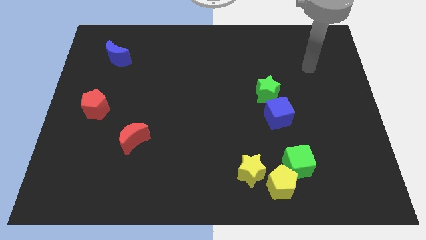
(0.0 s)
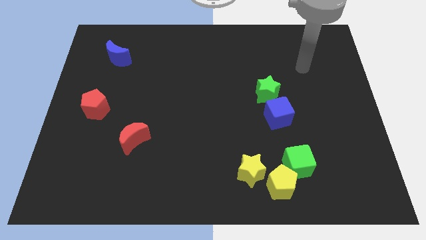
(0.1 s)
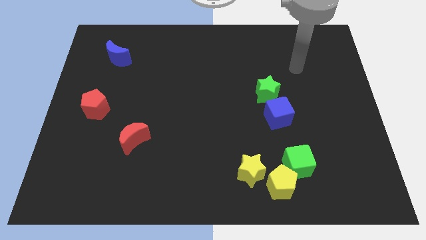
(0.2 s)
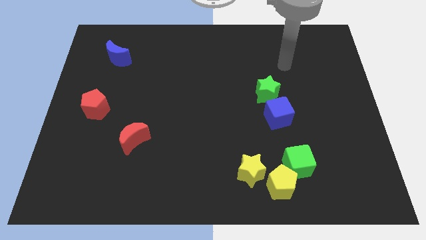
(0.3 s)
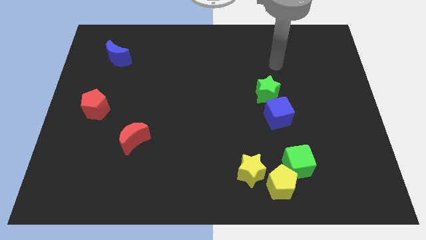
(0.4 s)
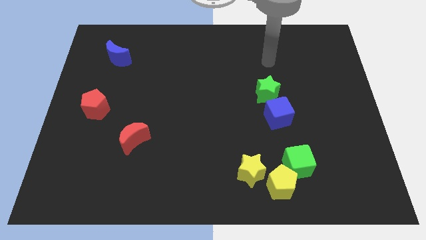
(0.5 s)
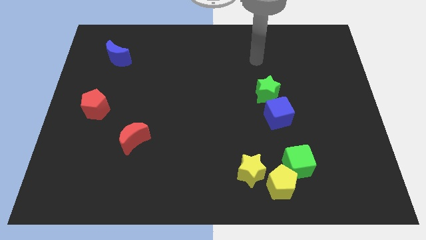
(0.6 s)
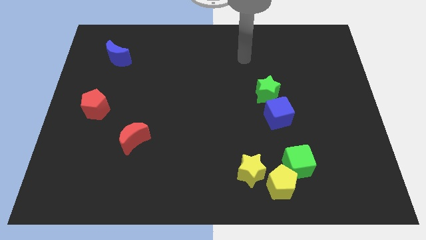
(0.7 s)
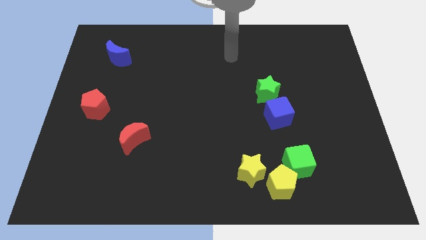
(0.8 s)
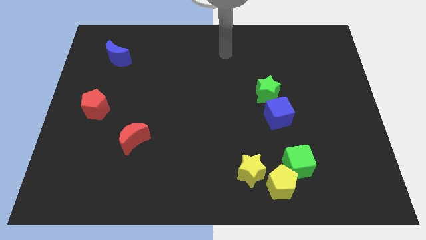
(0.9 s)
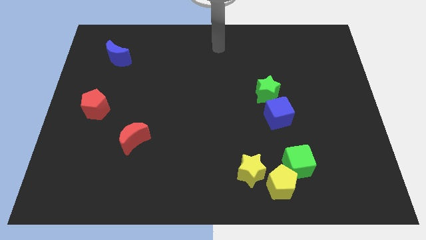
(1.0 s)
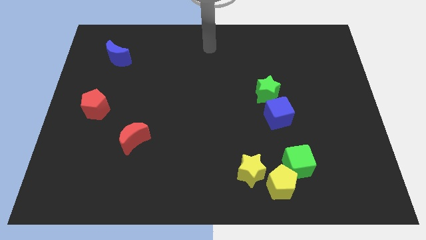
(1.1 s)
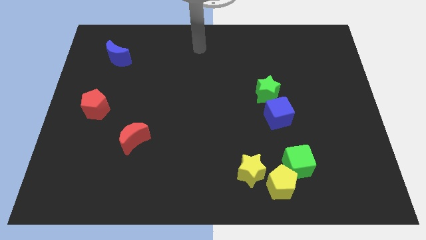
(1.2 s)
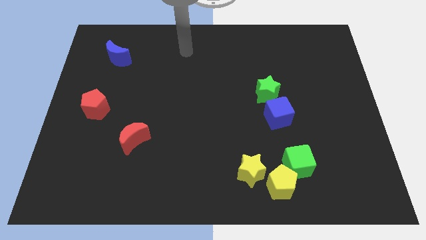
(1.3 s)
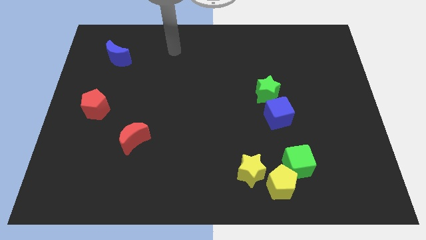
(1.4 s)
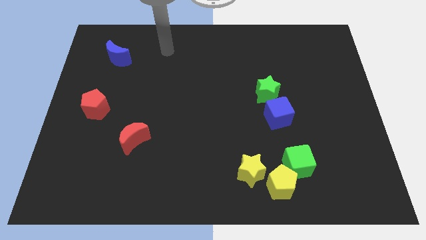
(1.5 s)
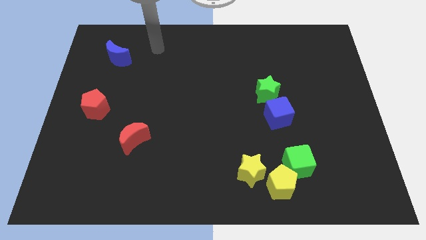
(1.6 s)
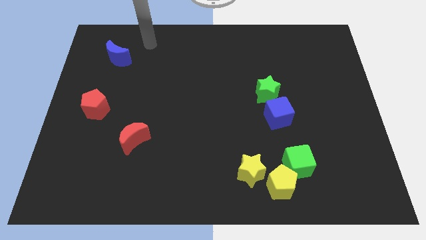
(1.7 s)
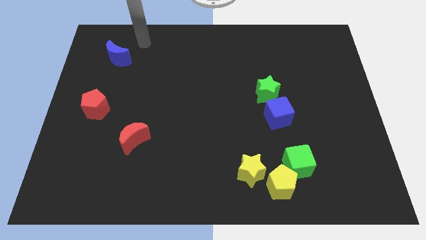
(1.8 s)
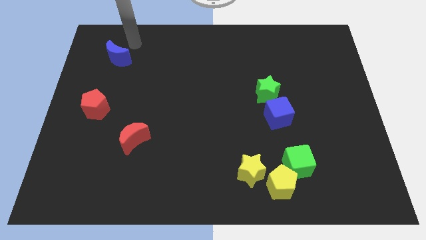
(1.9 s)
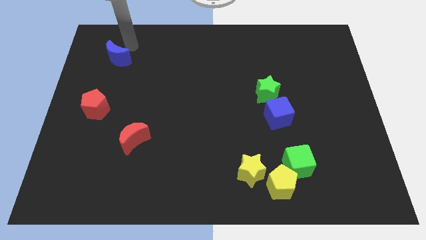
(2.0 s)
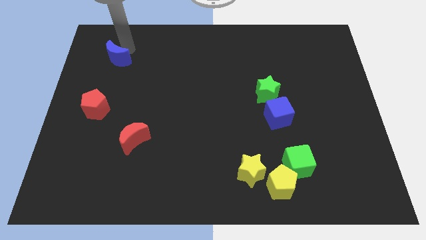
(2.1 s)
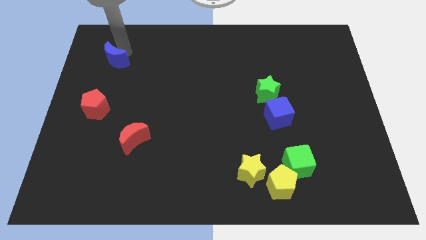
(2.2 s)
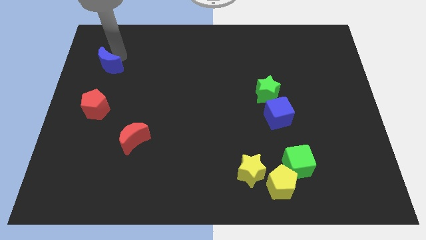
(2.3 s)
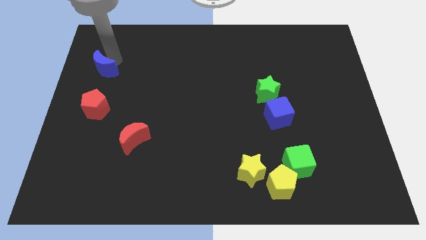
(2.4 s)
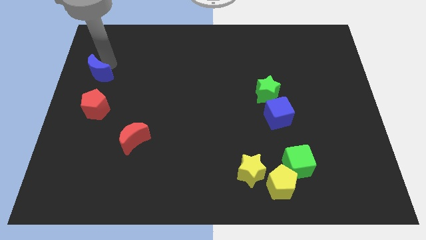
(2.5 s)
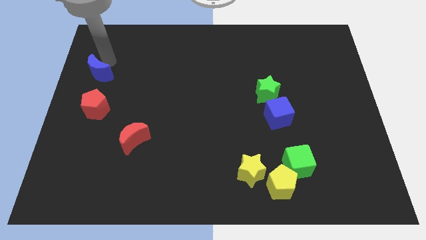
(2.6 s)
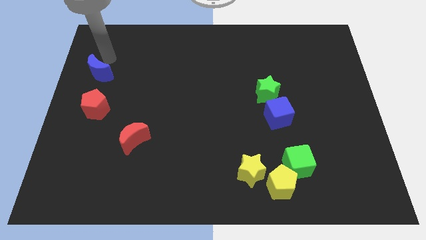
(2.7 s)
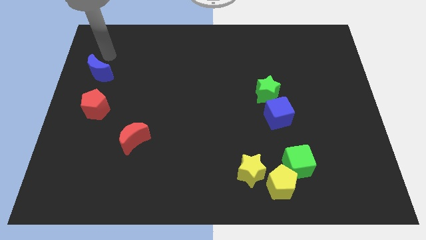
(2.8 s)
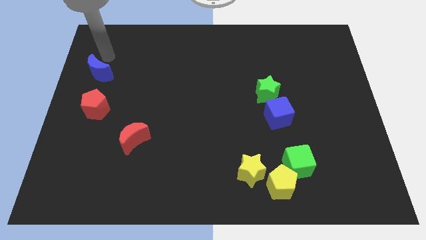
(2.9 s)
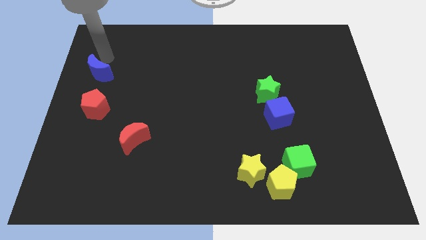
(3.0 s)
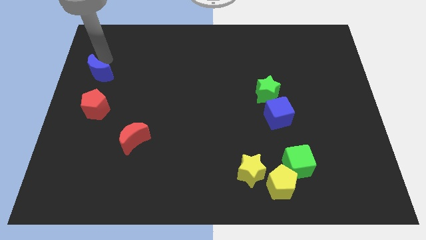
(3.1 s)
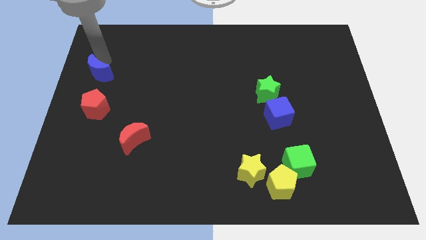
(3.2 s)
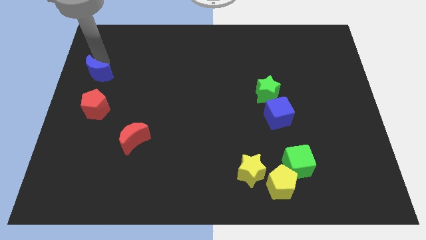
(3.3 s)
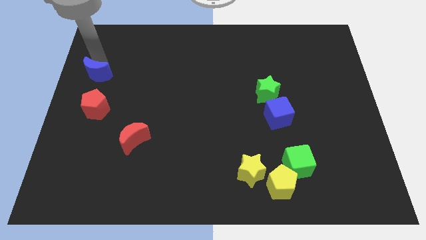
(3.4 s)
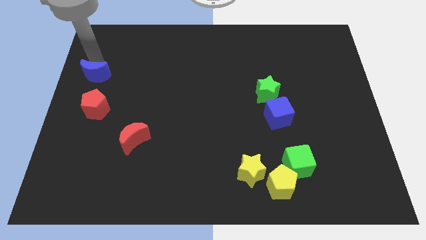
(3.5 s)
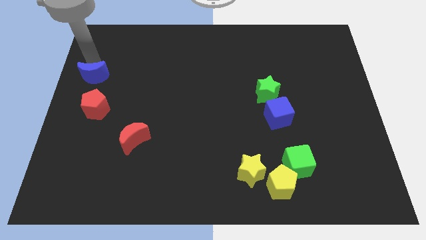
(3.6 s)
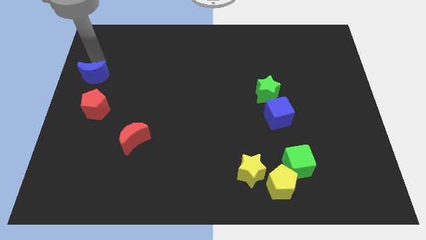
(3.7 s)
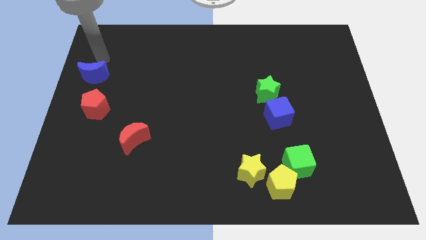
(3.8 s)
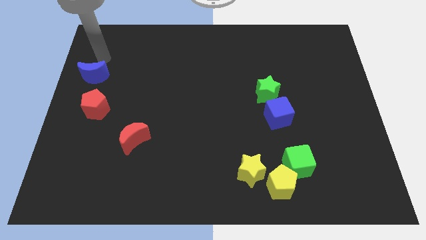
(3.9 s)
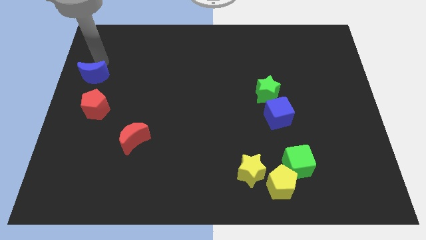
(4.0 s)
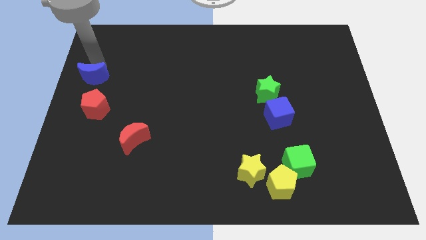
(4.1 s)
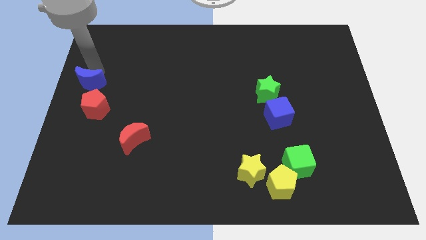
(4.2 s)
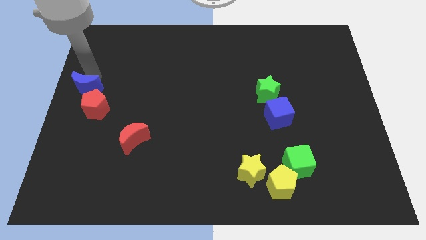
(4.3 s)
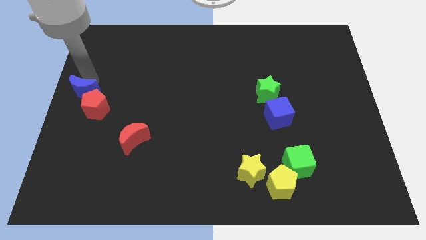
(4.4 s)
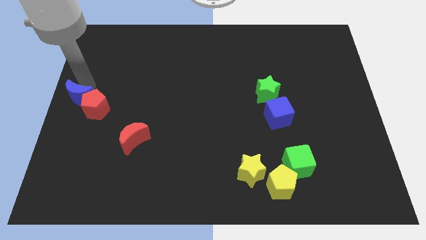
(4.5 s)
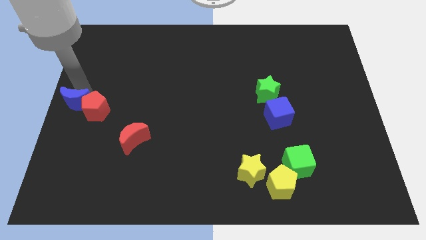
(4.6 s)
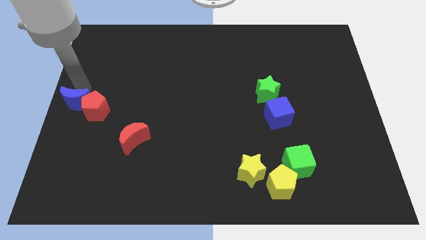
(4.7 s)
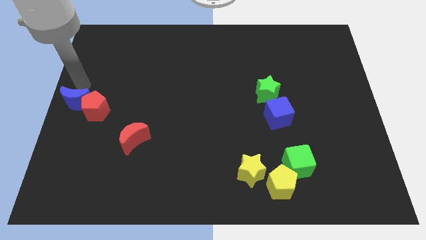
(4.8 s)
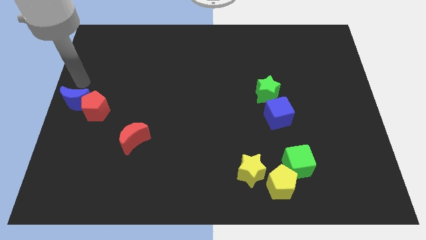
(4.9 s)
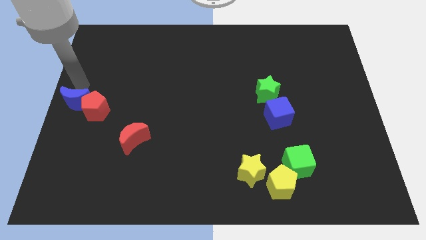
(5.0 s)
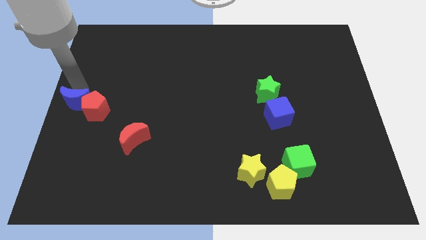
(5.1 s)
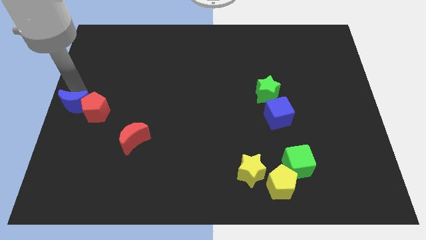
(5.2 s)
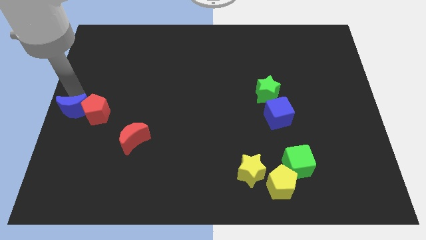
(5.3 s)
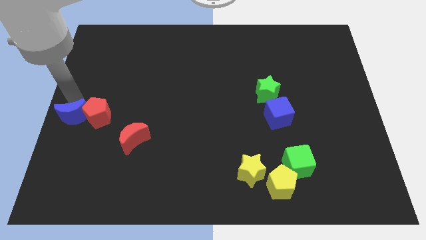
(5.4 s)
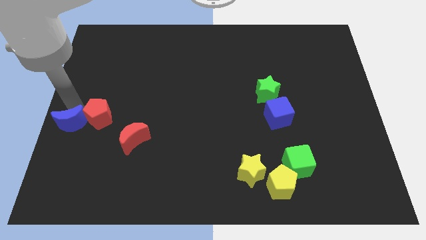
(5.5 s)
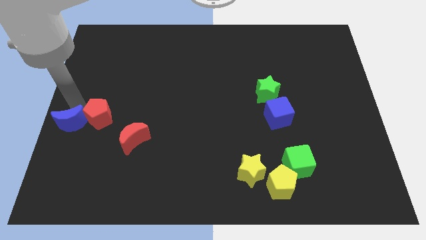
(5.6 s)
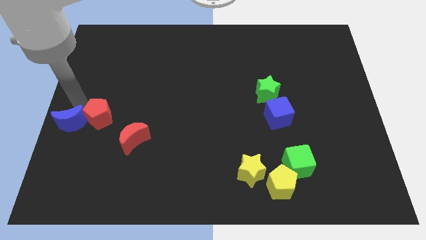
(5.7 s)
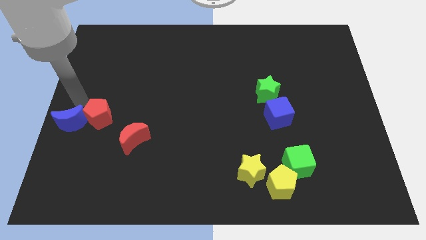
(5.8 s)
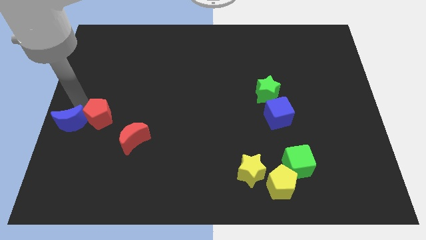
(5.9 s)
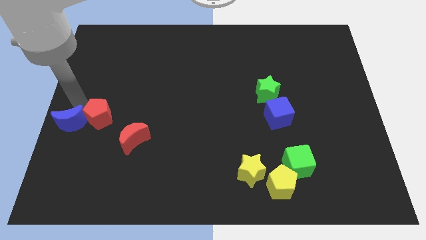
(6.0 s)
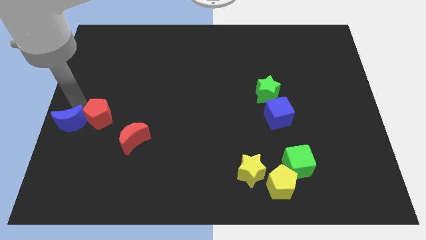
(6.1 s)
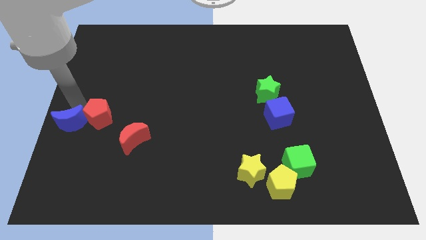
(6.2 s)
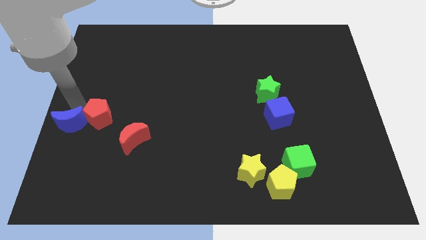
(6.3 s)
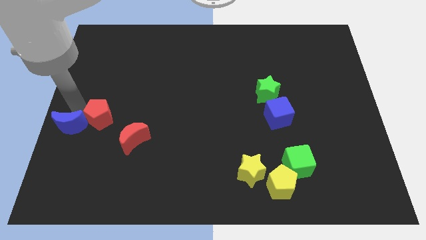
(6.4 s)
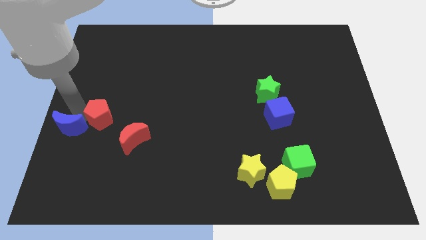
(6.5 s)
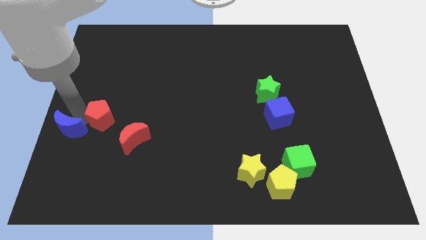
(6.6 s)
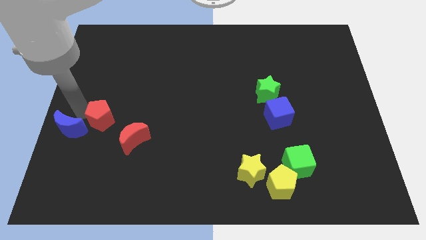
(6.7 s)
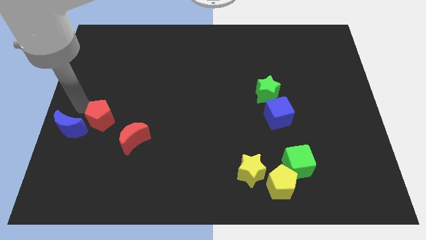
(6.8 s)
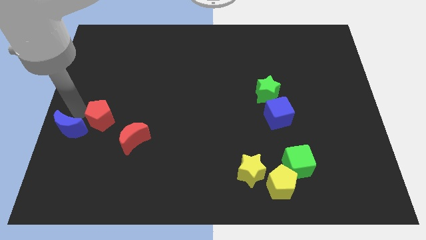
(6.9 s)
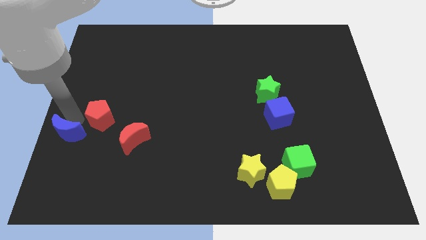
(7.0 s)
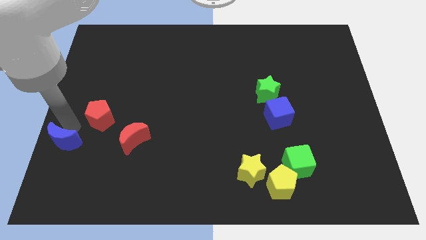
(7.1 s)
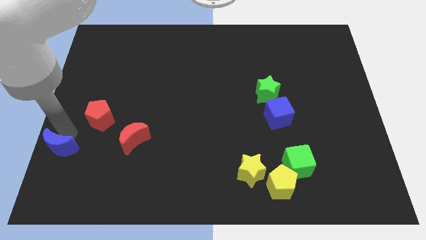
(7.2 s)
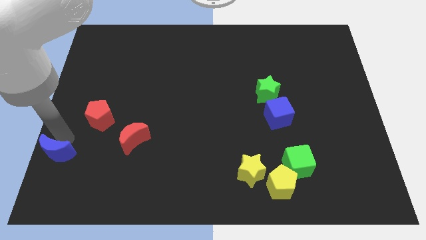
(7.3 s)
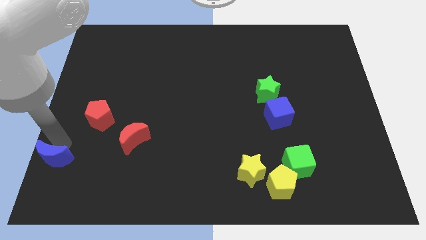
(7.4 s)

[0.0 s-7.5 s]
slide the blue moon to the bottom left
